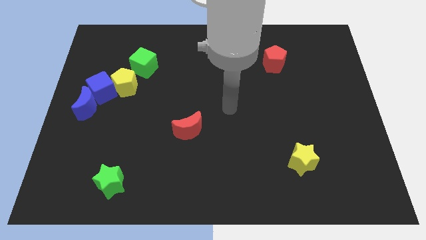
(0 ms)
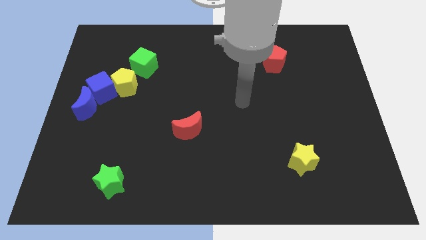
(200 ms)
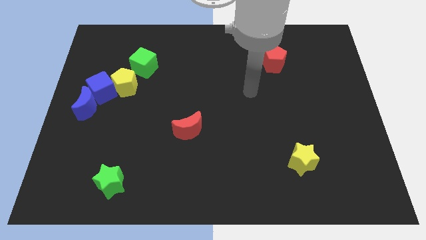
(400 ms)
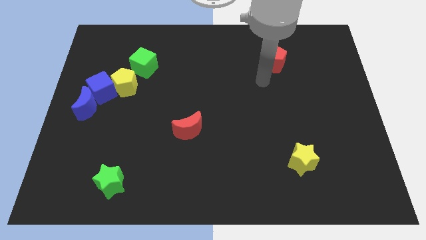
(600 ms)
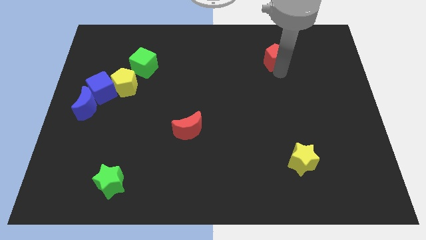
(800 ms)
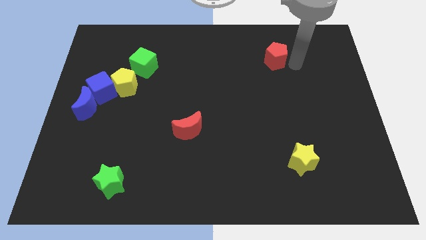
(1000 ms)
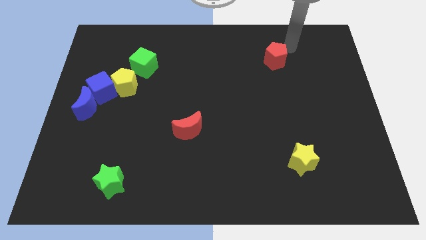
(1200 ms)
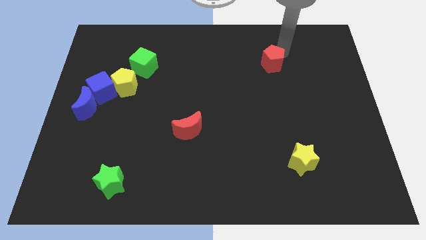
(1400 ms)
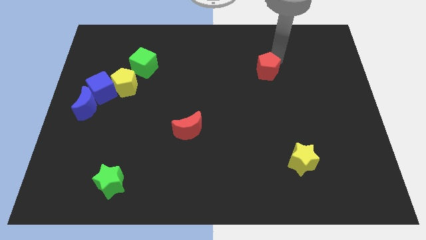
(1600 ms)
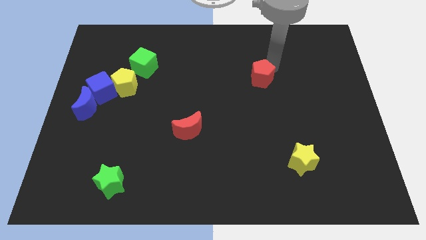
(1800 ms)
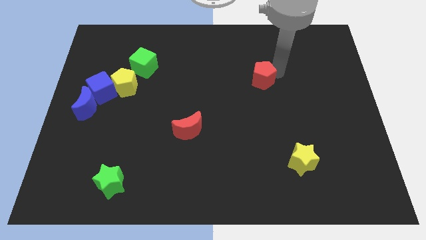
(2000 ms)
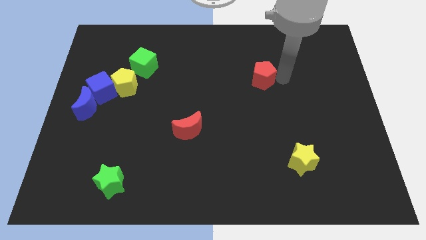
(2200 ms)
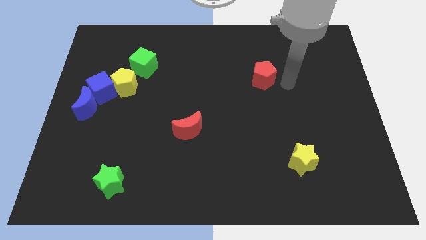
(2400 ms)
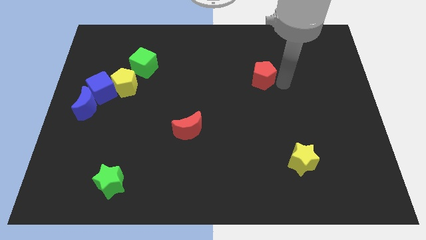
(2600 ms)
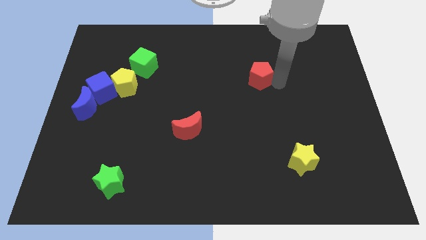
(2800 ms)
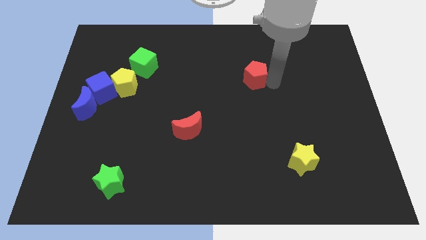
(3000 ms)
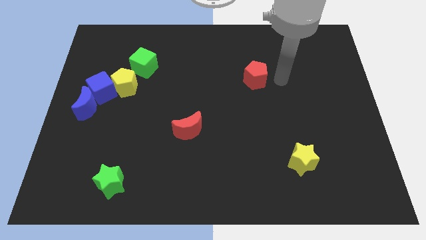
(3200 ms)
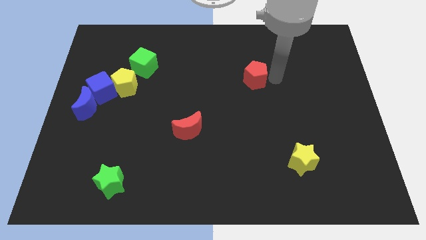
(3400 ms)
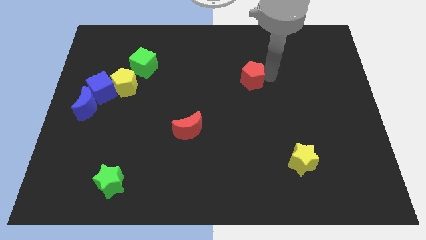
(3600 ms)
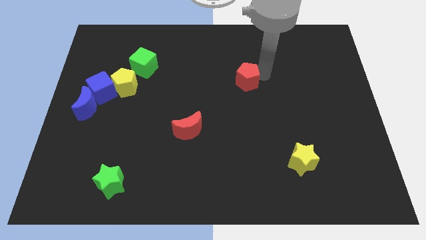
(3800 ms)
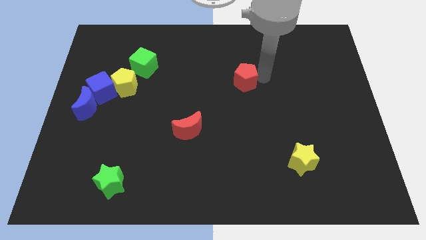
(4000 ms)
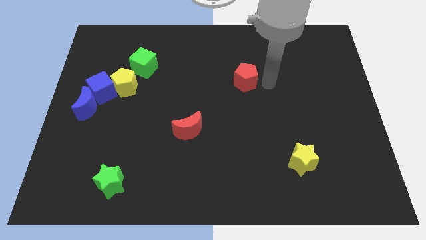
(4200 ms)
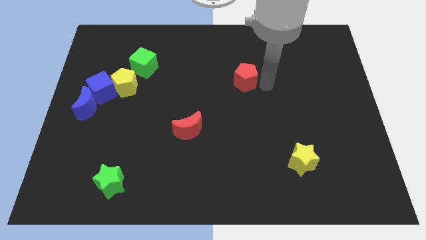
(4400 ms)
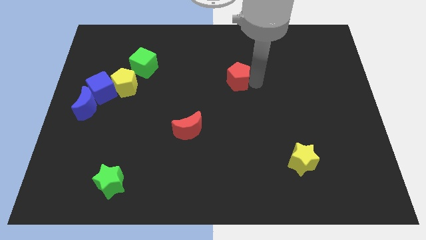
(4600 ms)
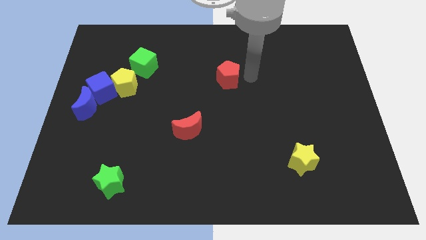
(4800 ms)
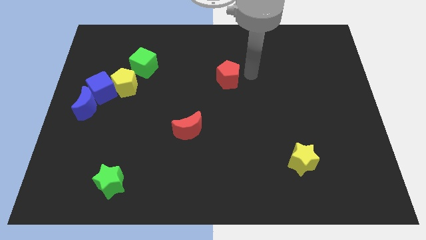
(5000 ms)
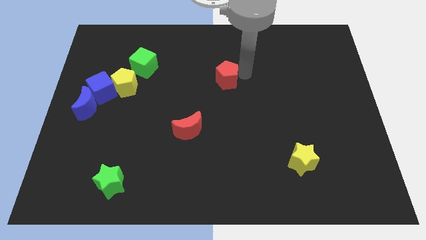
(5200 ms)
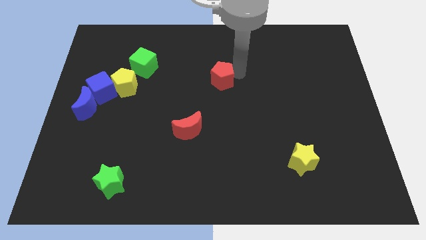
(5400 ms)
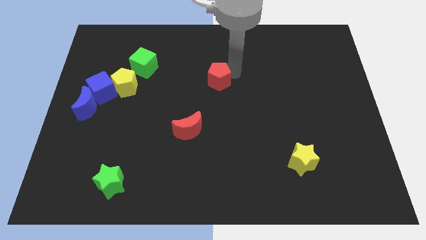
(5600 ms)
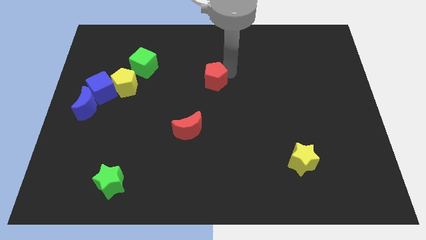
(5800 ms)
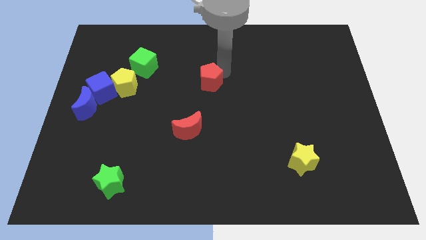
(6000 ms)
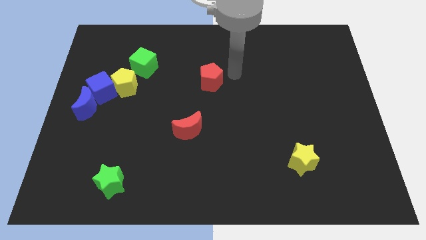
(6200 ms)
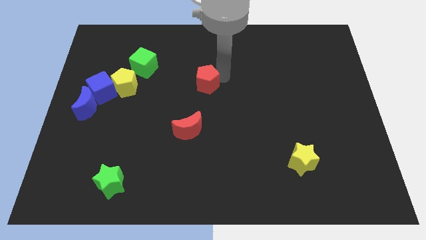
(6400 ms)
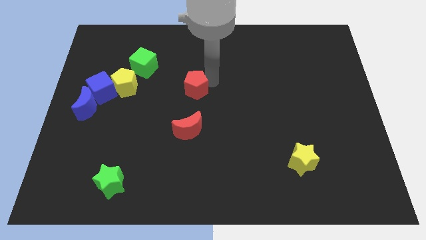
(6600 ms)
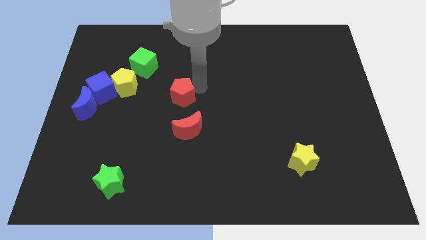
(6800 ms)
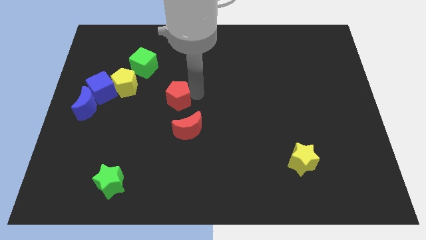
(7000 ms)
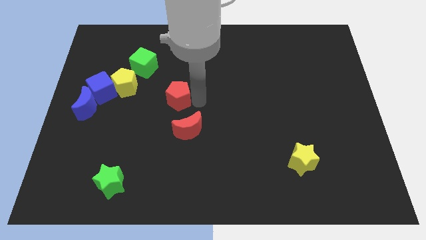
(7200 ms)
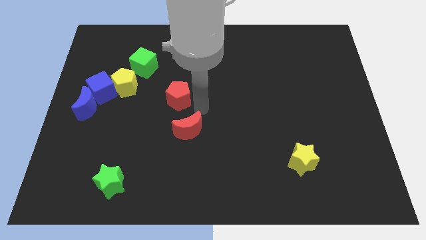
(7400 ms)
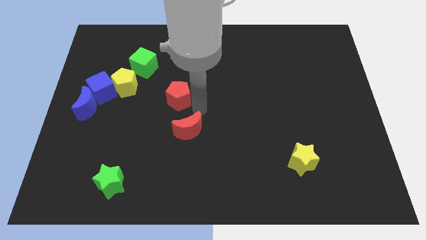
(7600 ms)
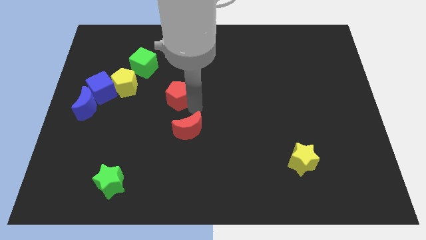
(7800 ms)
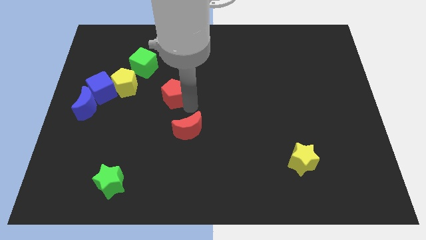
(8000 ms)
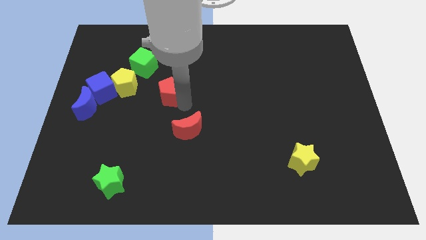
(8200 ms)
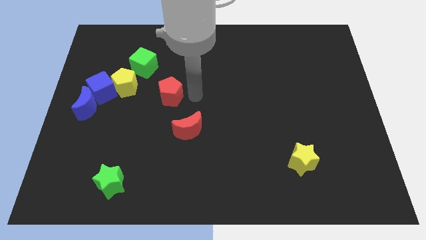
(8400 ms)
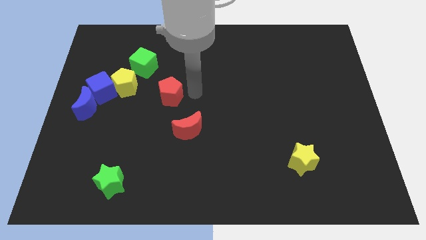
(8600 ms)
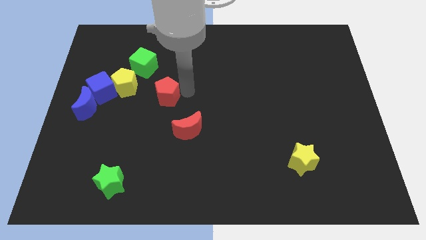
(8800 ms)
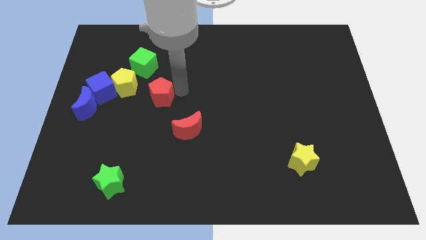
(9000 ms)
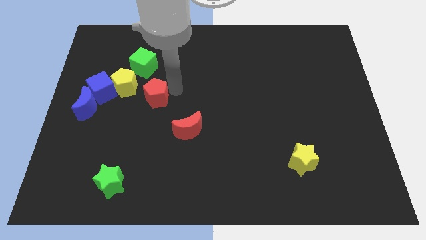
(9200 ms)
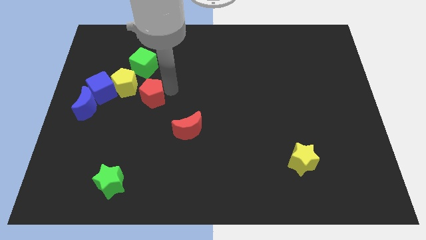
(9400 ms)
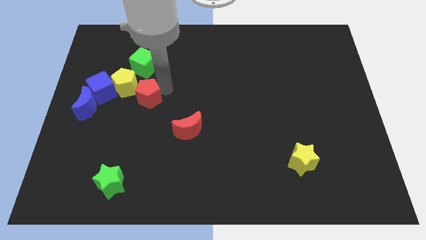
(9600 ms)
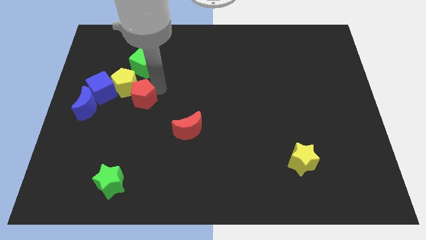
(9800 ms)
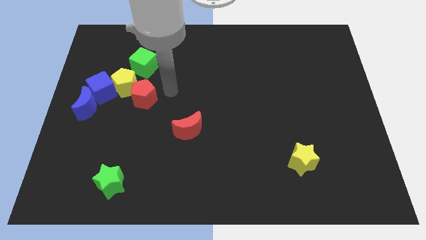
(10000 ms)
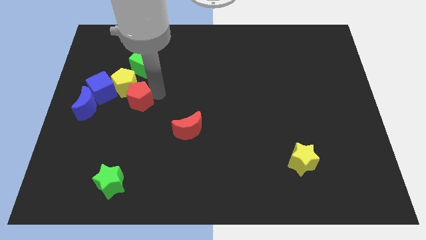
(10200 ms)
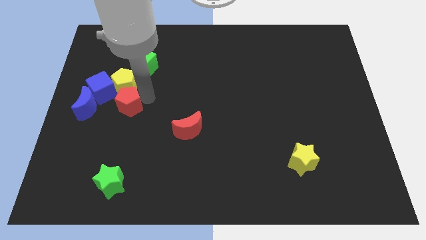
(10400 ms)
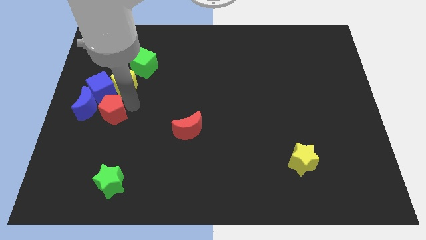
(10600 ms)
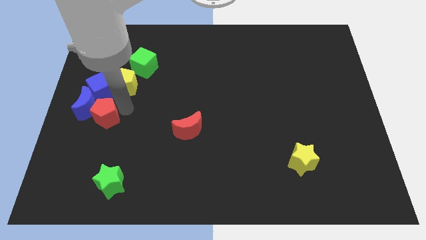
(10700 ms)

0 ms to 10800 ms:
put the red pentagon close to the blue moon

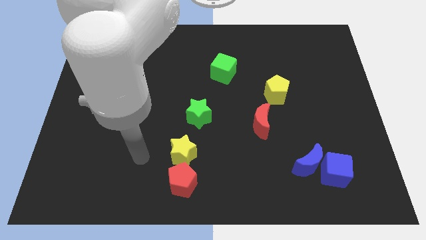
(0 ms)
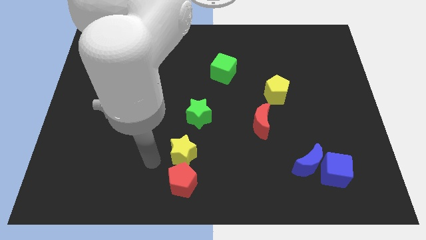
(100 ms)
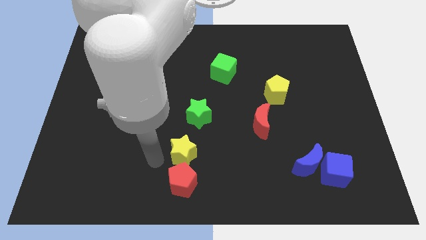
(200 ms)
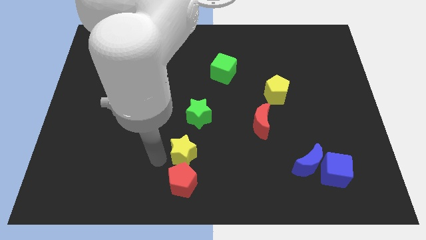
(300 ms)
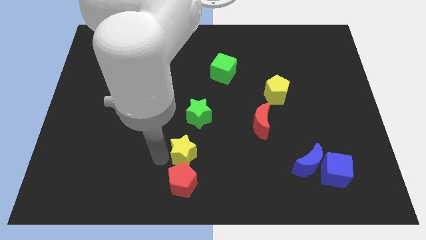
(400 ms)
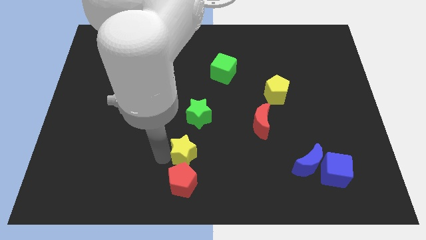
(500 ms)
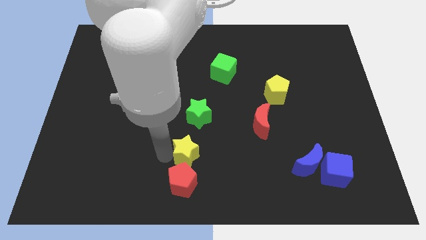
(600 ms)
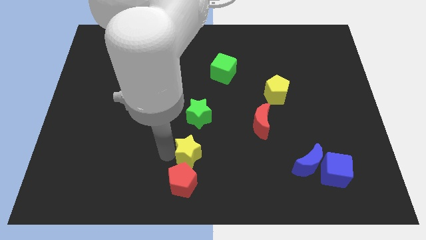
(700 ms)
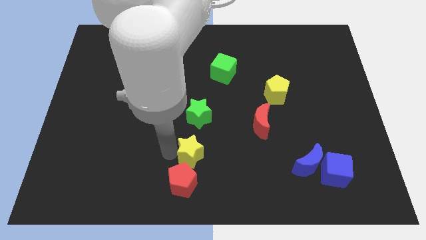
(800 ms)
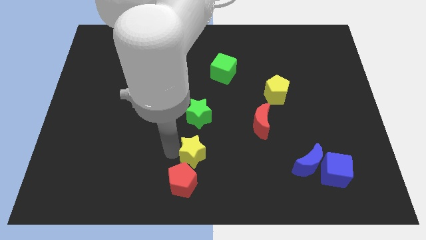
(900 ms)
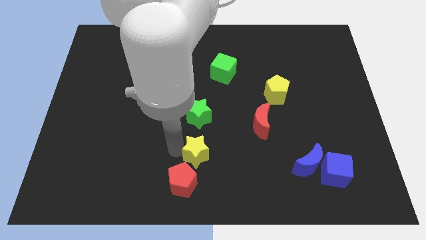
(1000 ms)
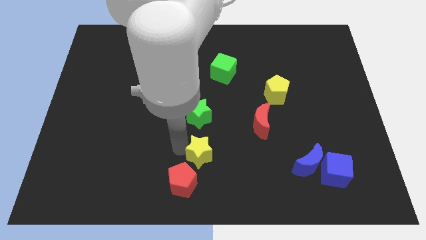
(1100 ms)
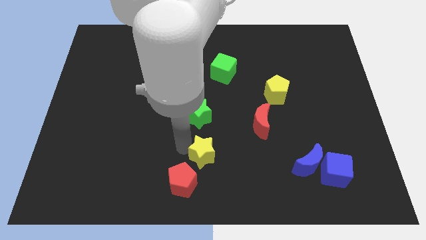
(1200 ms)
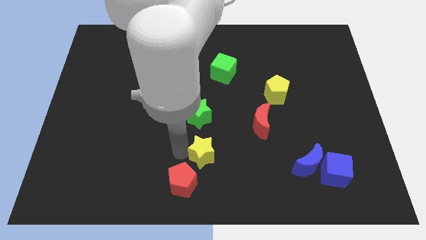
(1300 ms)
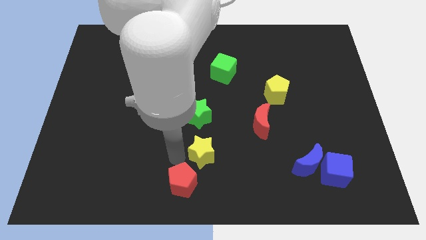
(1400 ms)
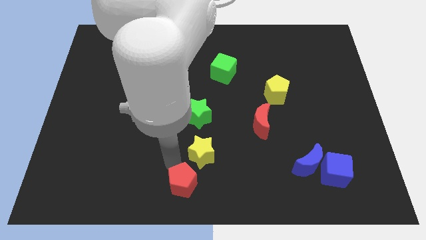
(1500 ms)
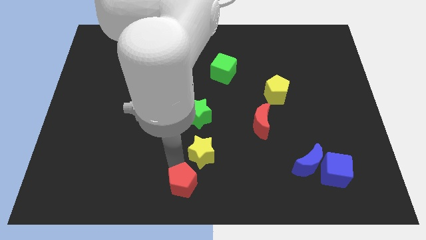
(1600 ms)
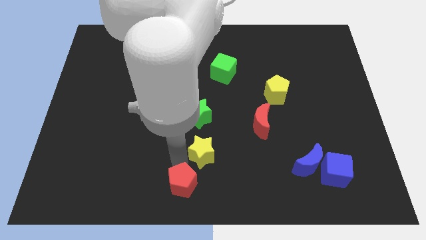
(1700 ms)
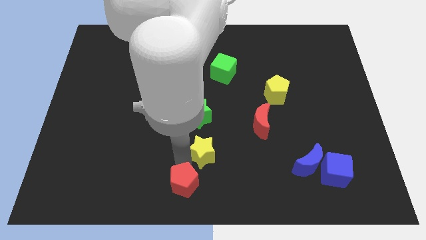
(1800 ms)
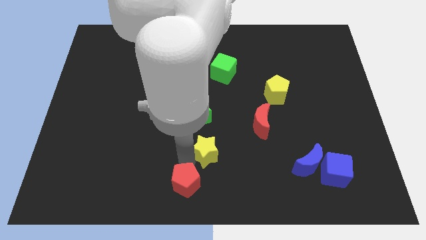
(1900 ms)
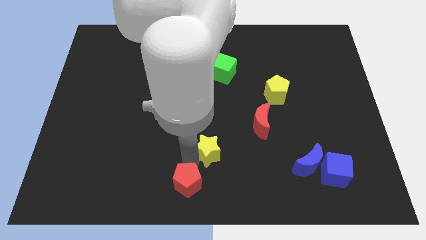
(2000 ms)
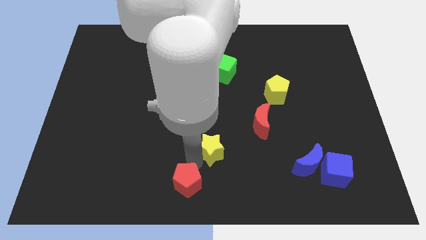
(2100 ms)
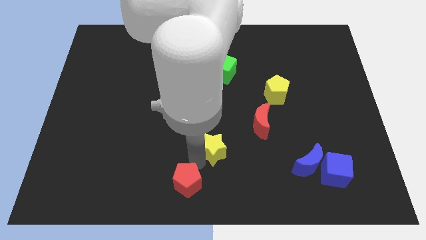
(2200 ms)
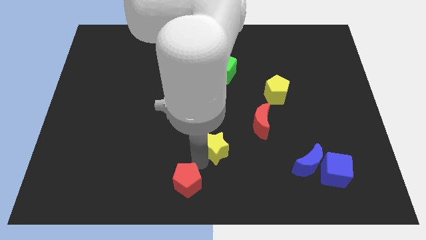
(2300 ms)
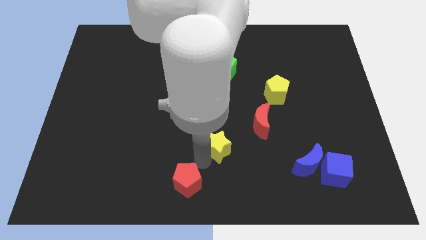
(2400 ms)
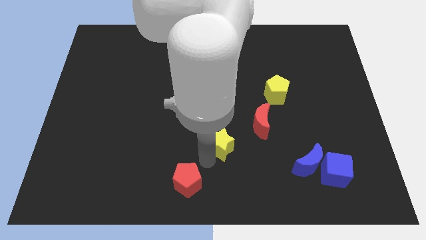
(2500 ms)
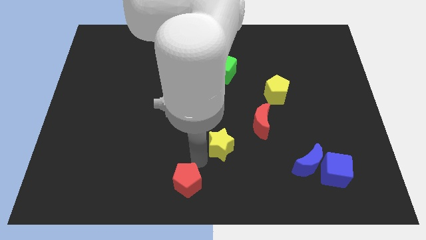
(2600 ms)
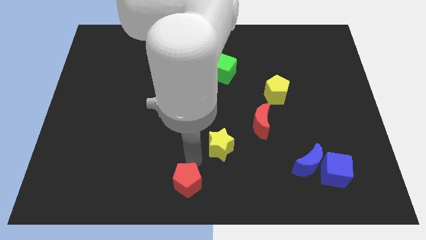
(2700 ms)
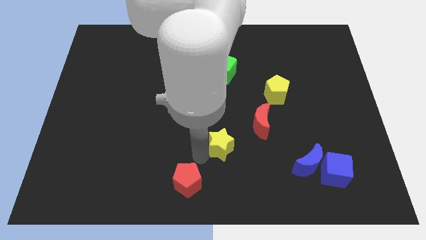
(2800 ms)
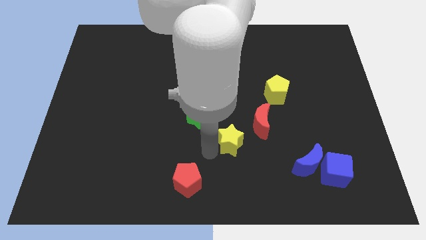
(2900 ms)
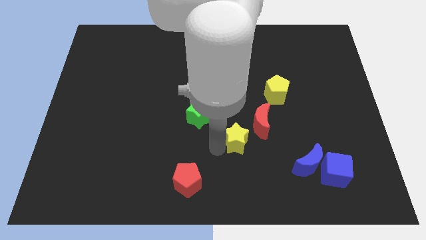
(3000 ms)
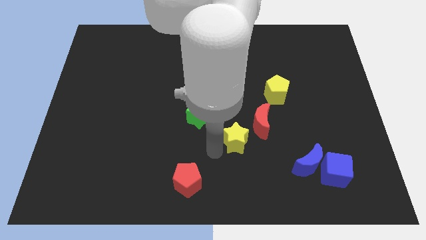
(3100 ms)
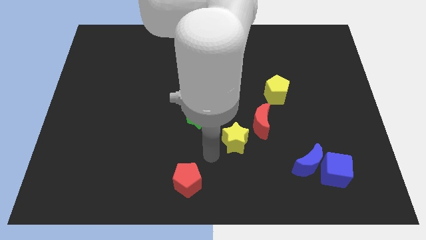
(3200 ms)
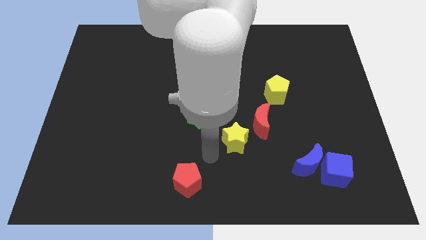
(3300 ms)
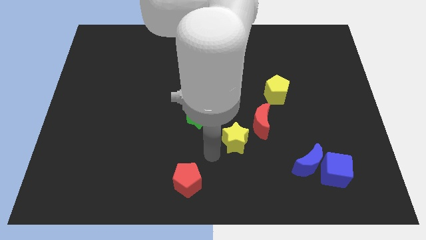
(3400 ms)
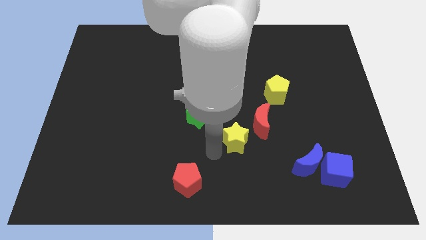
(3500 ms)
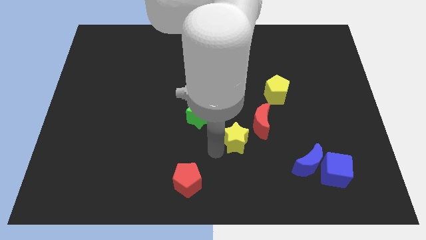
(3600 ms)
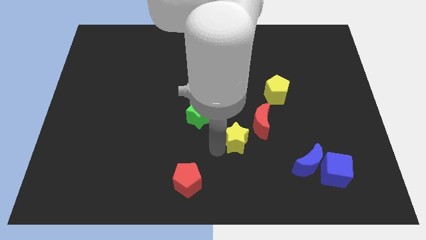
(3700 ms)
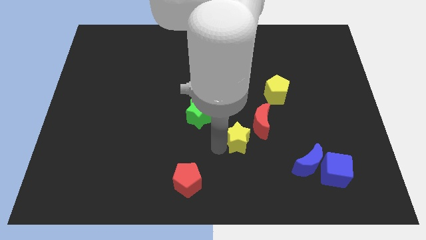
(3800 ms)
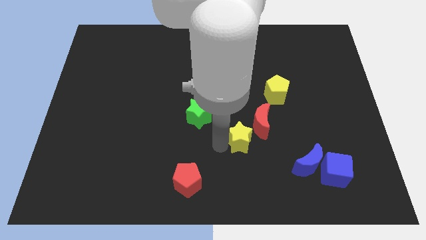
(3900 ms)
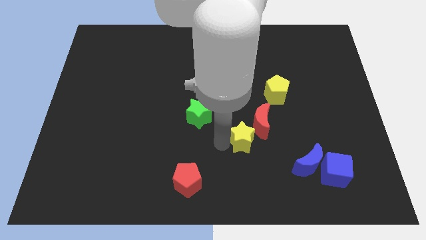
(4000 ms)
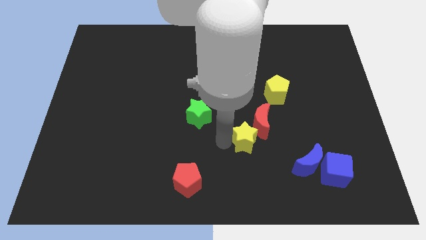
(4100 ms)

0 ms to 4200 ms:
move the yellow star next to the red moon
